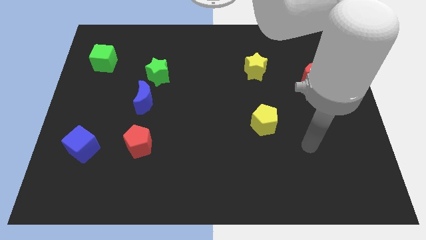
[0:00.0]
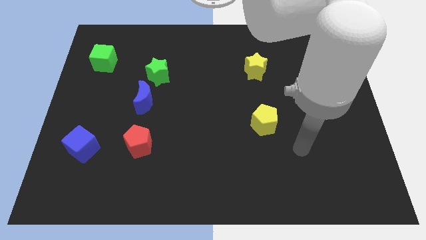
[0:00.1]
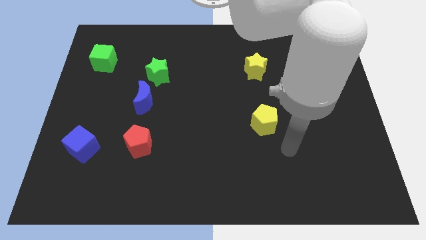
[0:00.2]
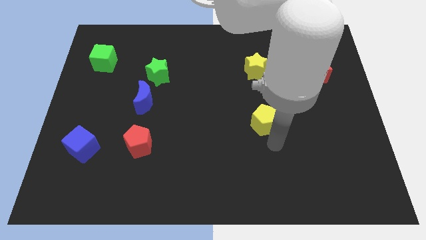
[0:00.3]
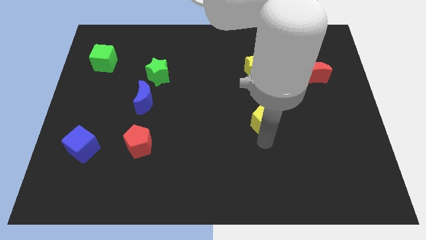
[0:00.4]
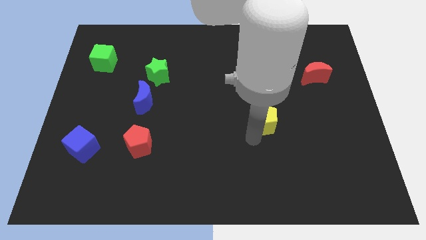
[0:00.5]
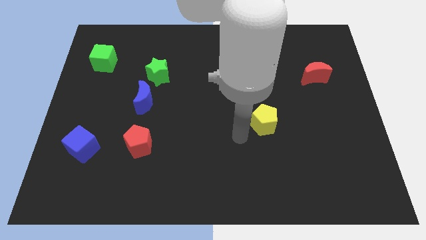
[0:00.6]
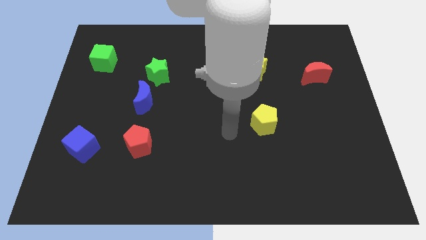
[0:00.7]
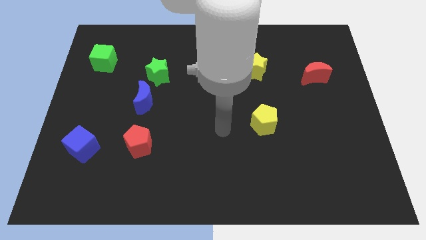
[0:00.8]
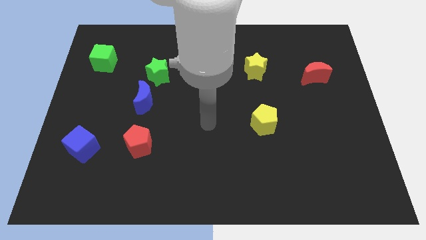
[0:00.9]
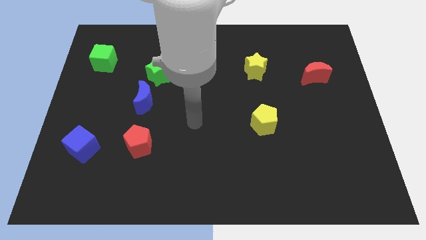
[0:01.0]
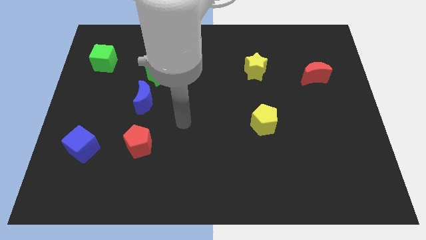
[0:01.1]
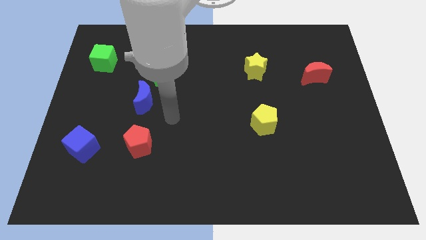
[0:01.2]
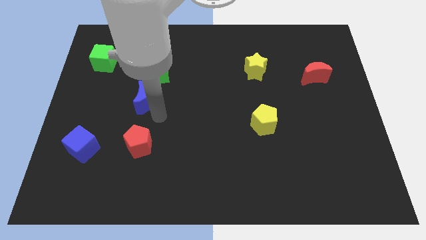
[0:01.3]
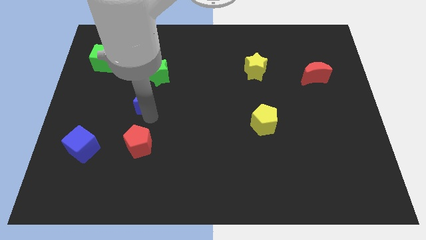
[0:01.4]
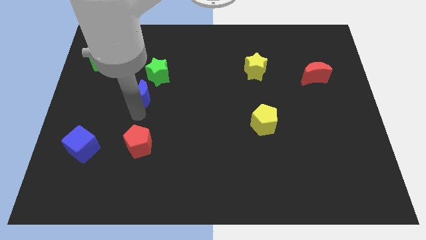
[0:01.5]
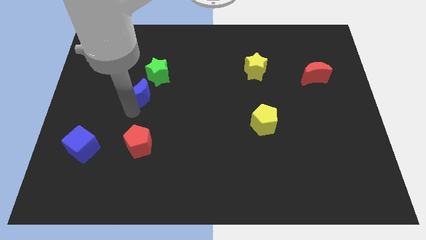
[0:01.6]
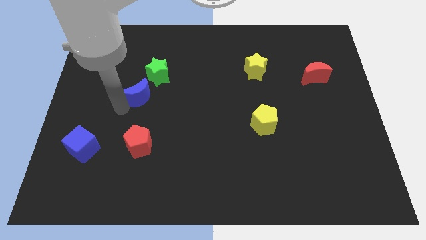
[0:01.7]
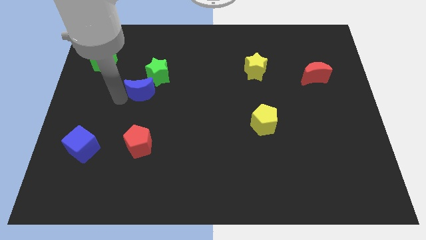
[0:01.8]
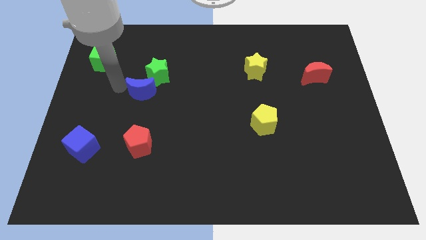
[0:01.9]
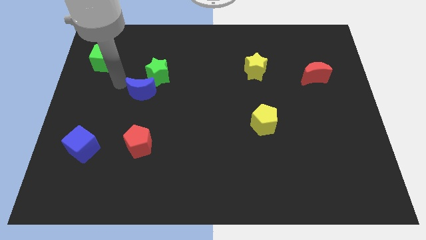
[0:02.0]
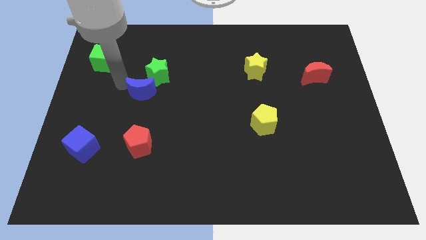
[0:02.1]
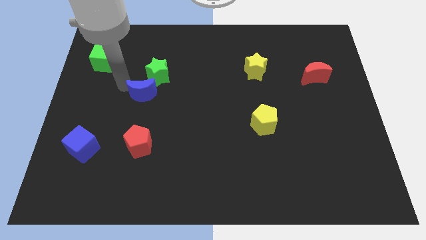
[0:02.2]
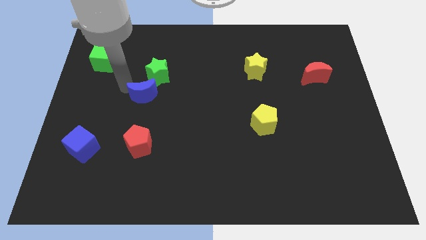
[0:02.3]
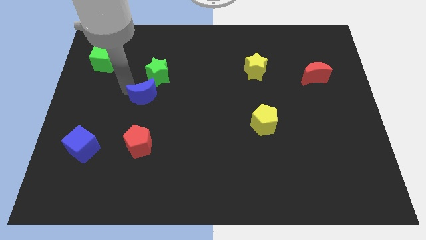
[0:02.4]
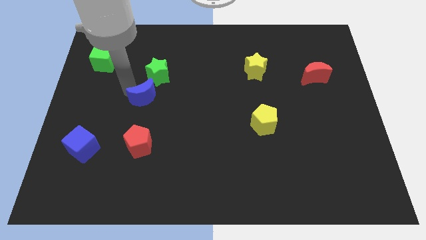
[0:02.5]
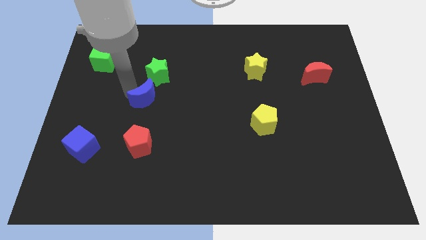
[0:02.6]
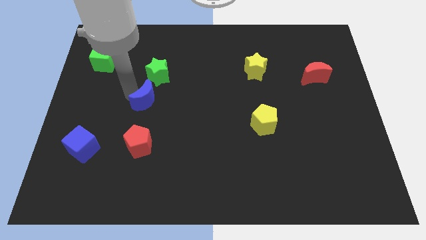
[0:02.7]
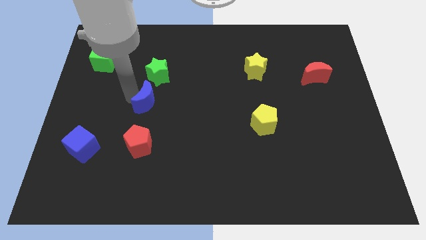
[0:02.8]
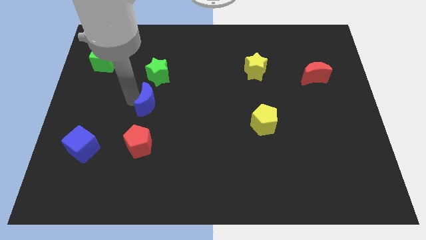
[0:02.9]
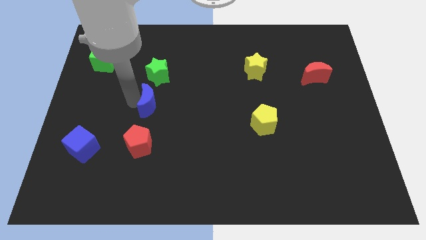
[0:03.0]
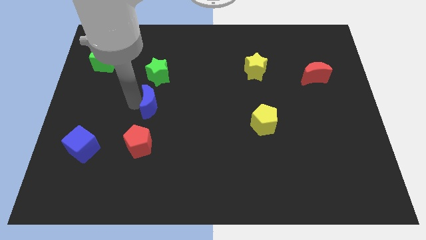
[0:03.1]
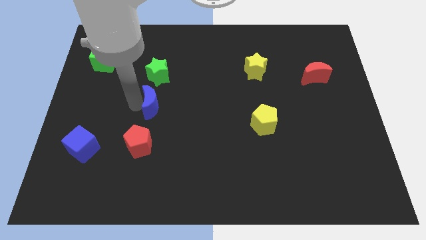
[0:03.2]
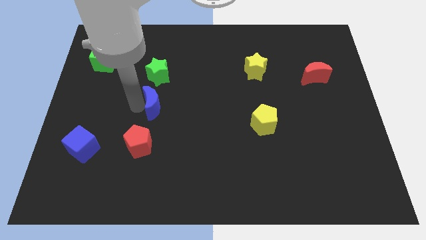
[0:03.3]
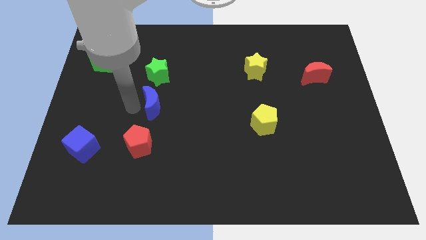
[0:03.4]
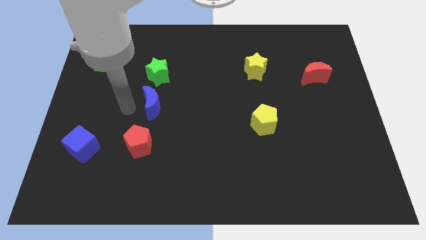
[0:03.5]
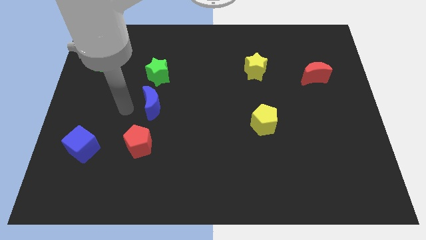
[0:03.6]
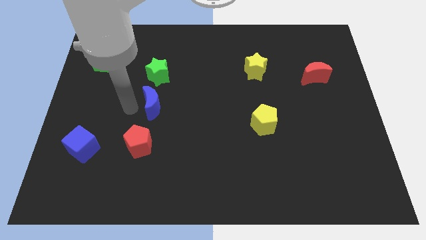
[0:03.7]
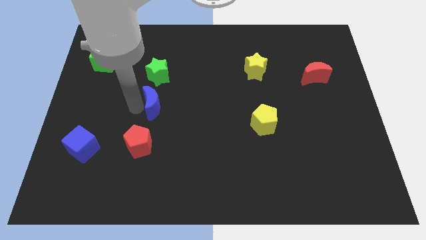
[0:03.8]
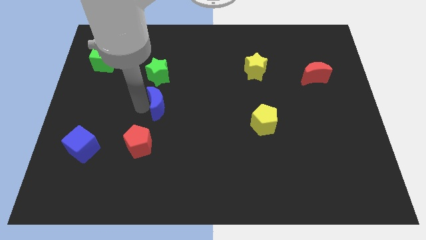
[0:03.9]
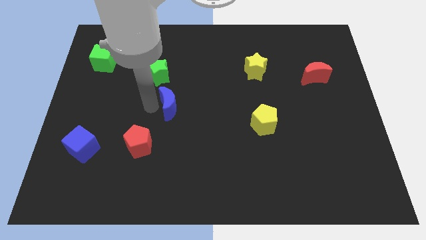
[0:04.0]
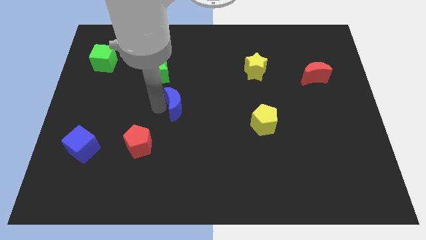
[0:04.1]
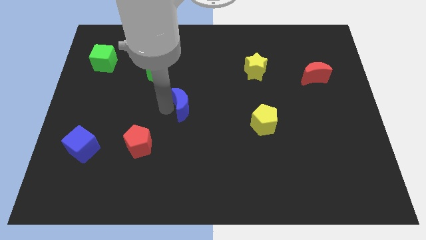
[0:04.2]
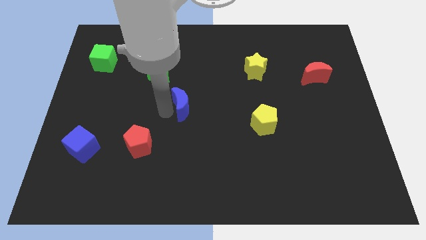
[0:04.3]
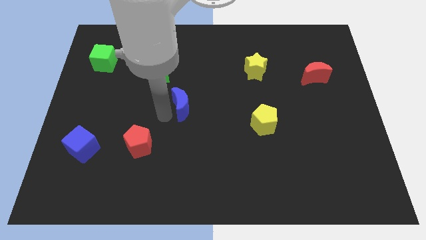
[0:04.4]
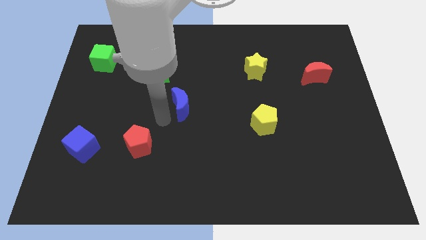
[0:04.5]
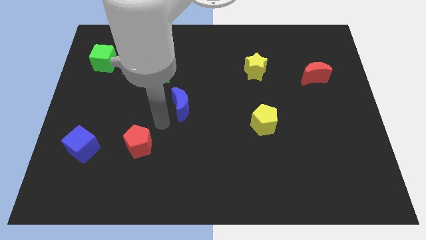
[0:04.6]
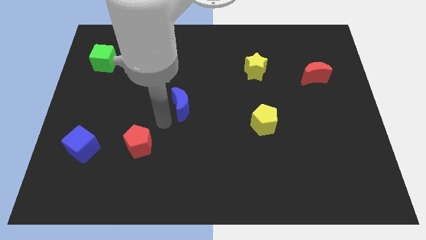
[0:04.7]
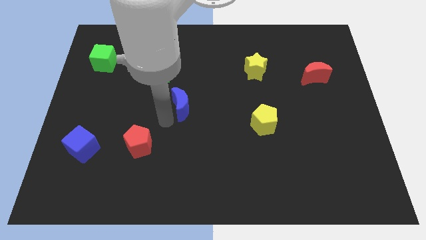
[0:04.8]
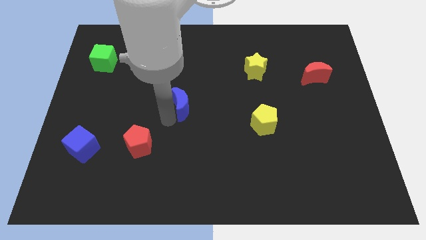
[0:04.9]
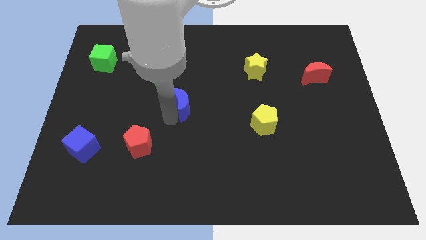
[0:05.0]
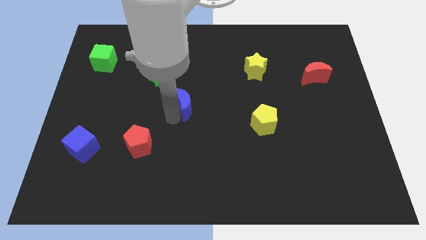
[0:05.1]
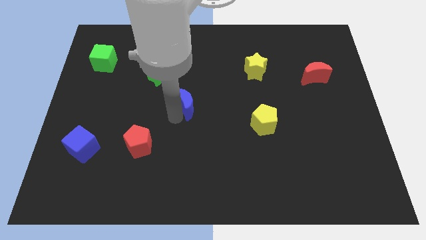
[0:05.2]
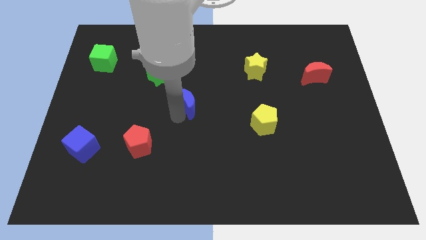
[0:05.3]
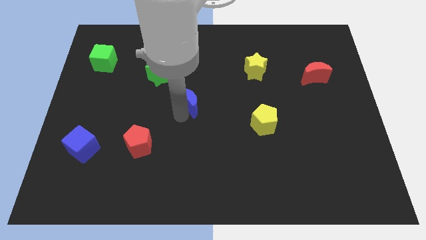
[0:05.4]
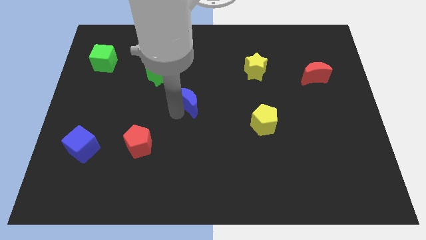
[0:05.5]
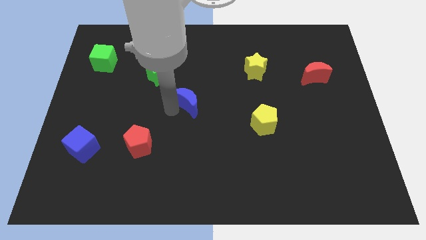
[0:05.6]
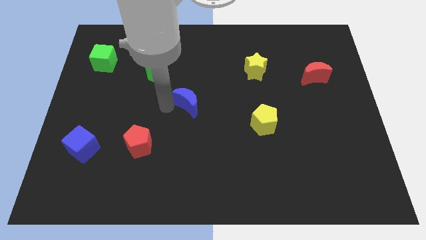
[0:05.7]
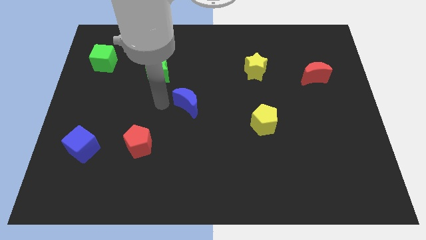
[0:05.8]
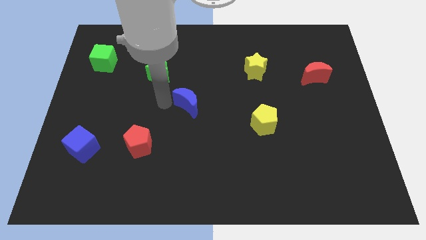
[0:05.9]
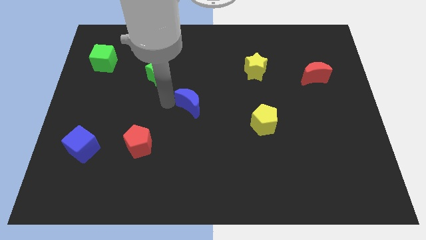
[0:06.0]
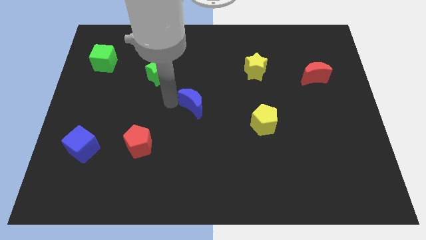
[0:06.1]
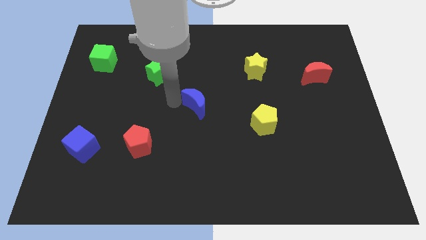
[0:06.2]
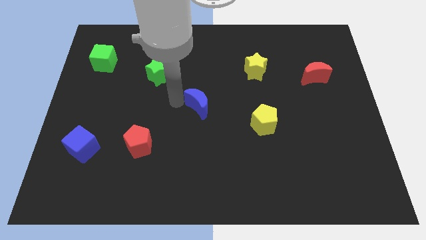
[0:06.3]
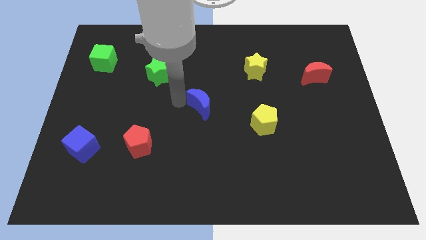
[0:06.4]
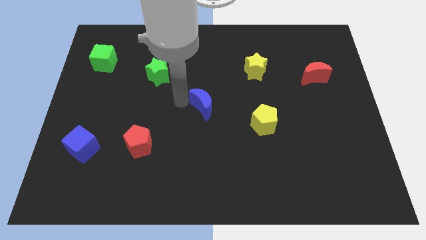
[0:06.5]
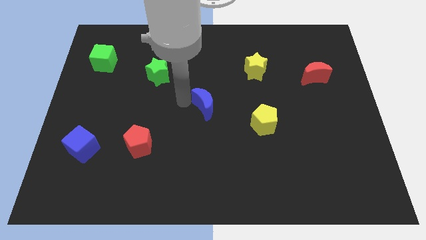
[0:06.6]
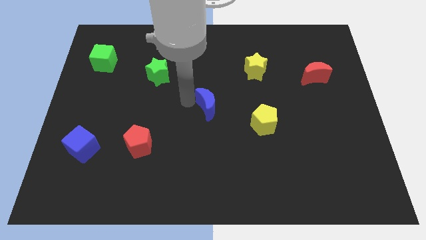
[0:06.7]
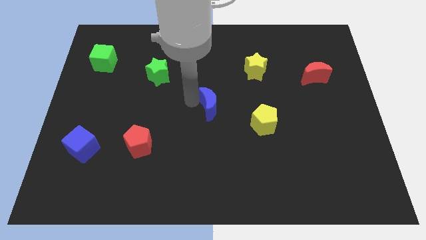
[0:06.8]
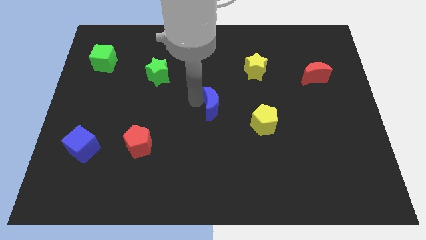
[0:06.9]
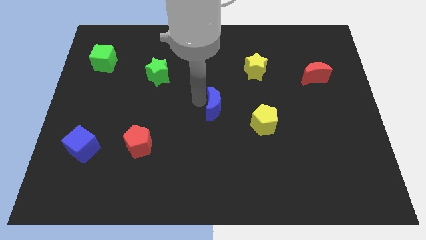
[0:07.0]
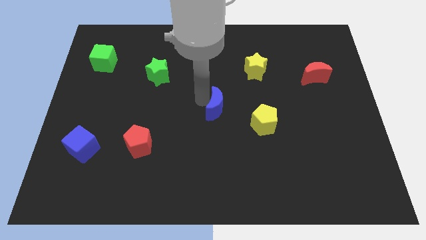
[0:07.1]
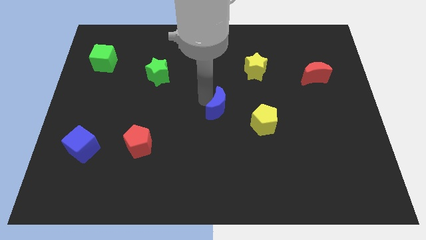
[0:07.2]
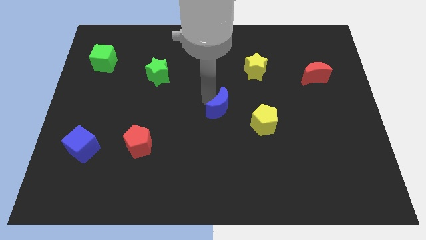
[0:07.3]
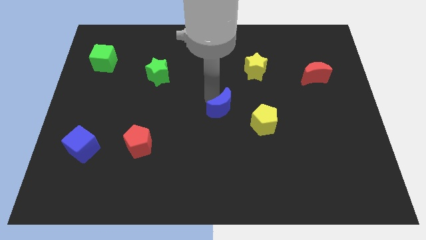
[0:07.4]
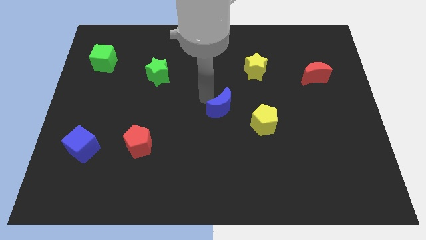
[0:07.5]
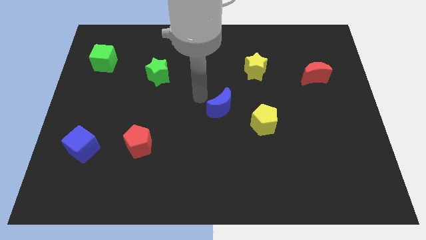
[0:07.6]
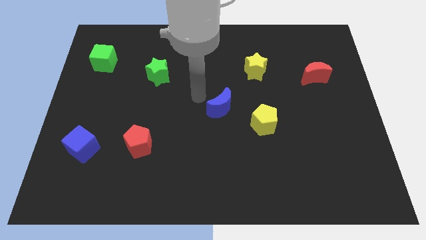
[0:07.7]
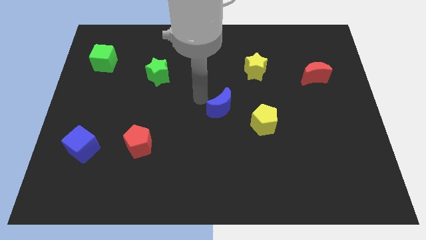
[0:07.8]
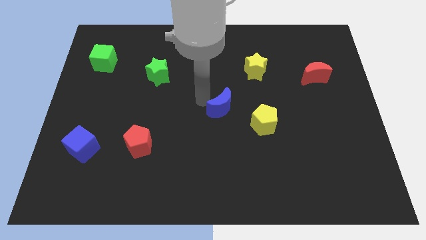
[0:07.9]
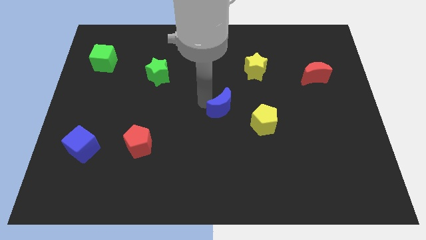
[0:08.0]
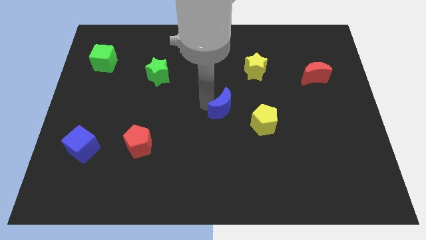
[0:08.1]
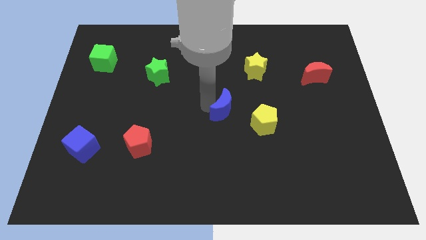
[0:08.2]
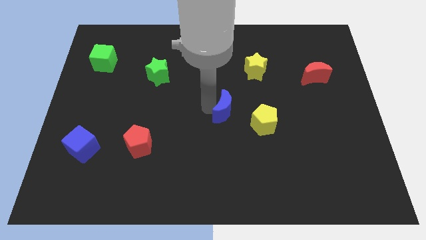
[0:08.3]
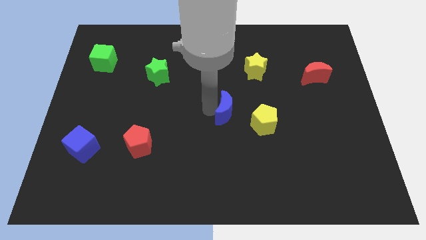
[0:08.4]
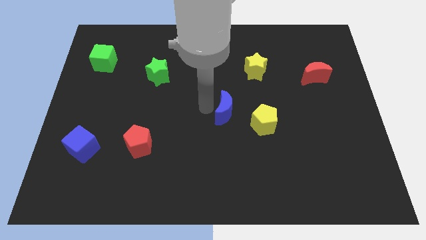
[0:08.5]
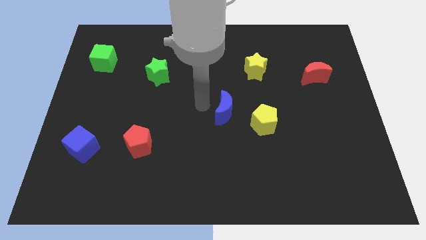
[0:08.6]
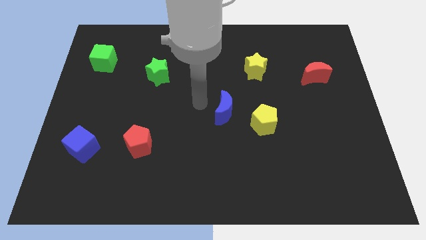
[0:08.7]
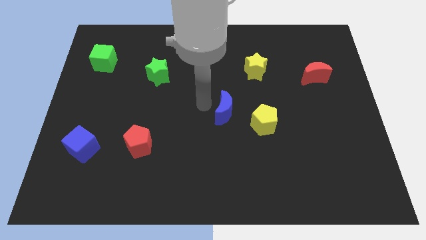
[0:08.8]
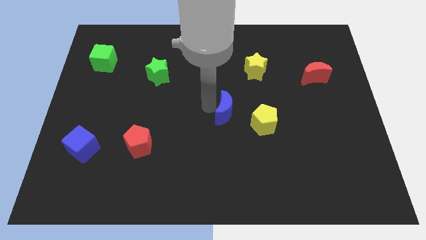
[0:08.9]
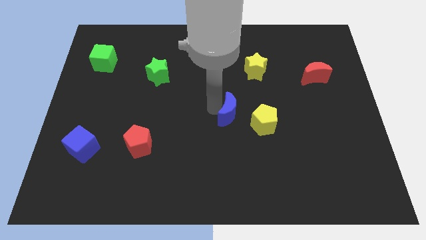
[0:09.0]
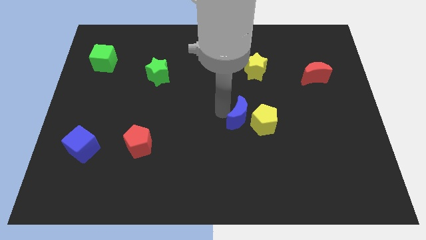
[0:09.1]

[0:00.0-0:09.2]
push the blue moon to the yellow pentagon
